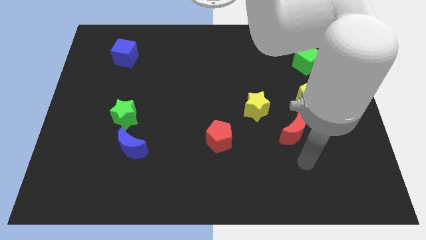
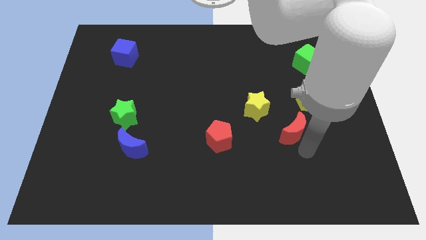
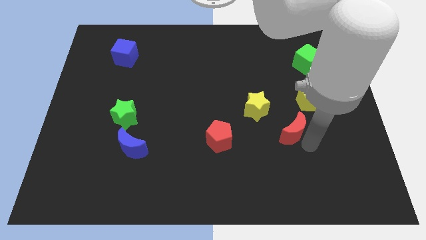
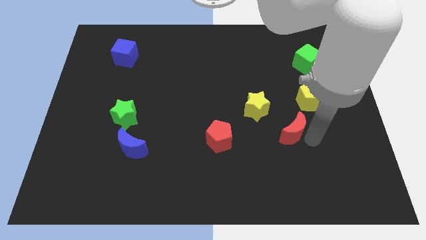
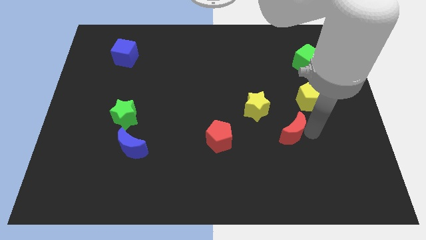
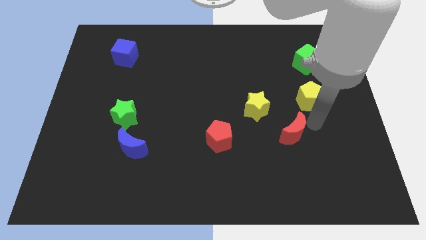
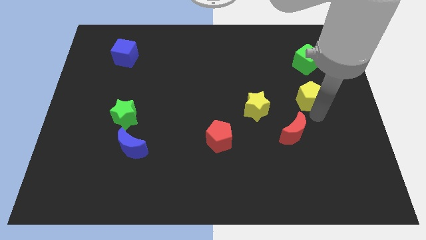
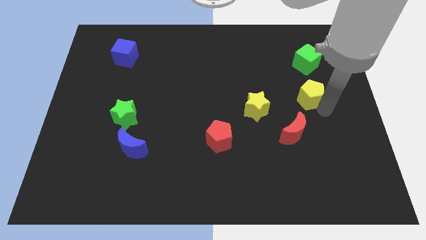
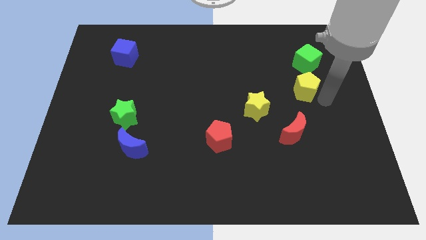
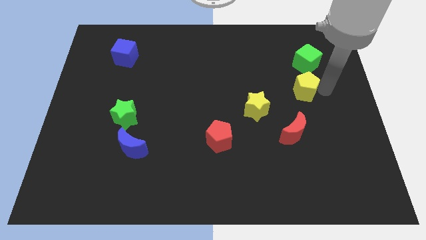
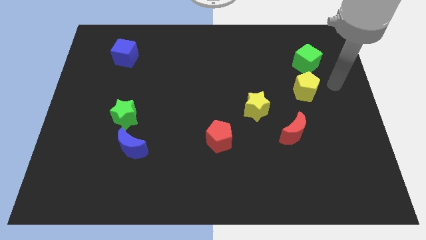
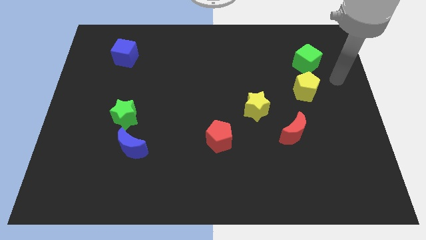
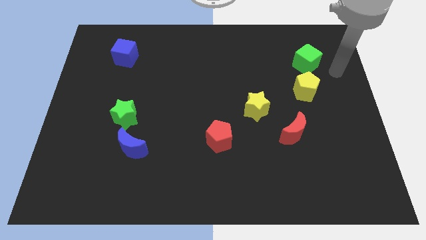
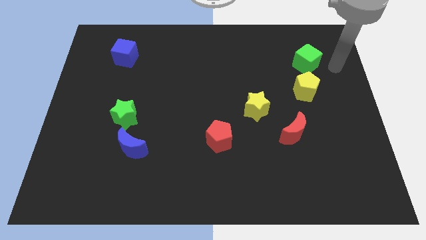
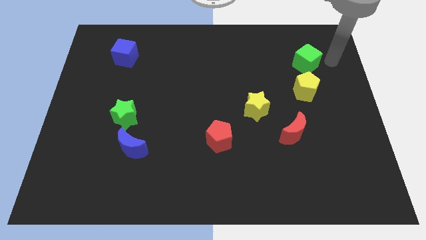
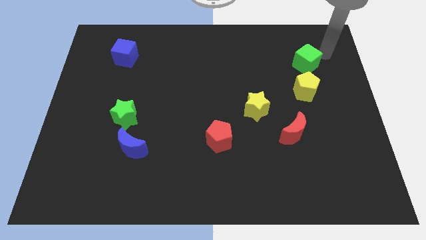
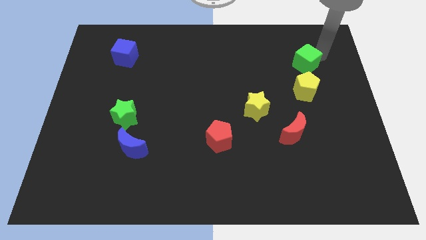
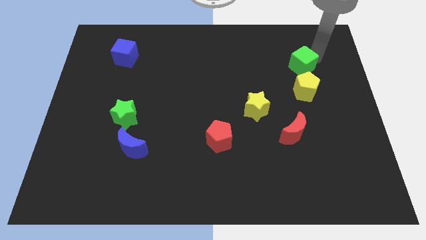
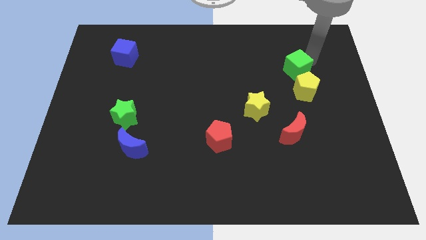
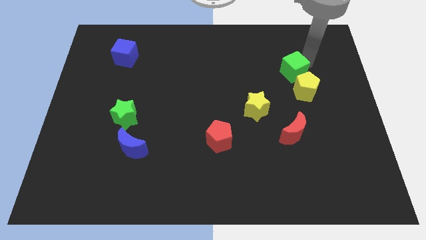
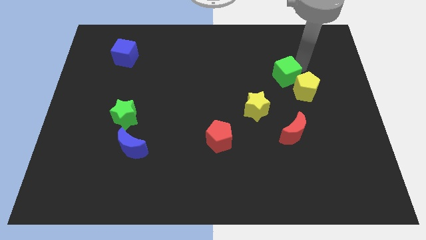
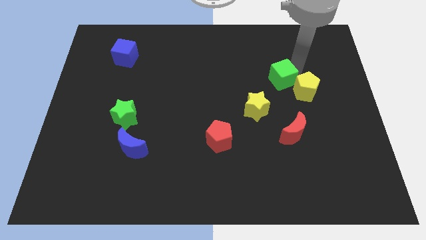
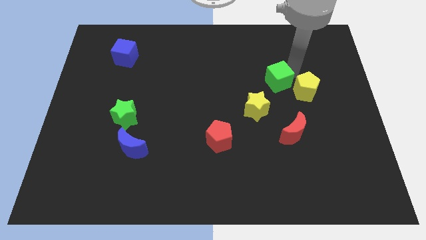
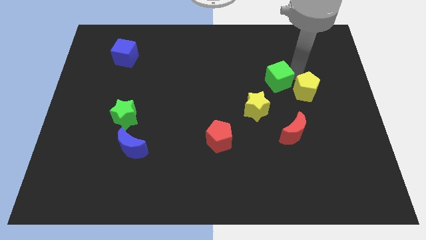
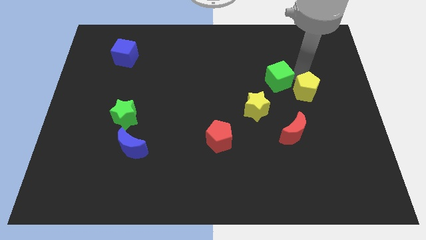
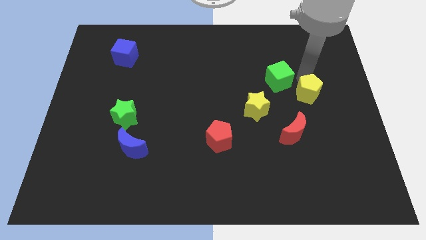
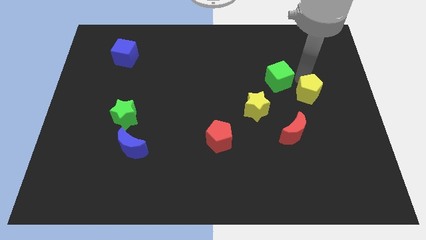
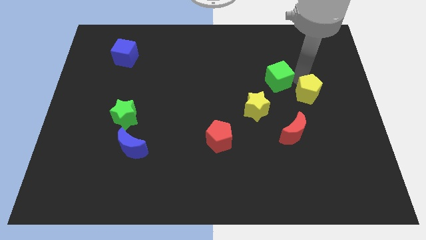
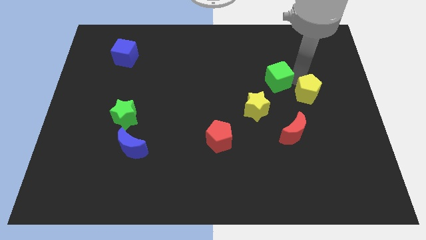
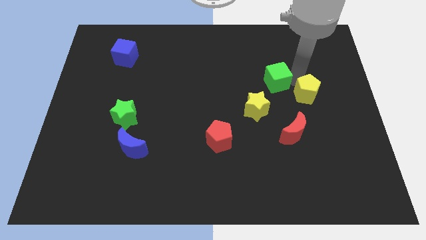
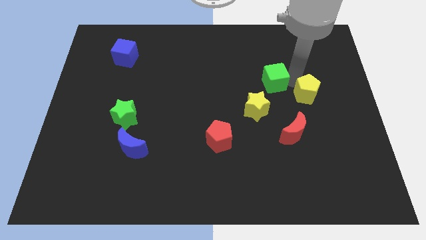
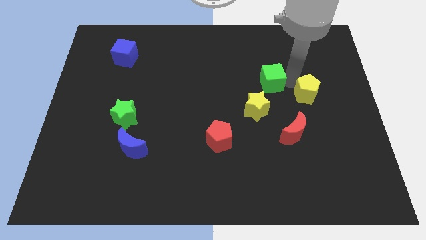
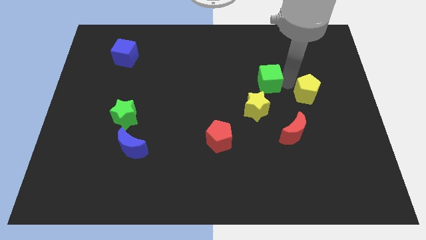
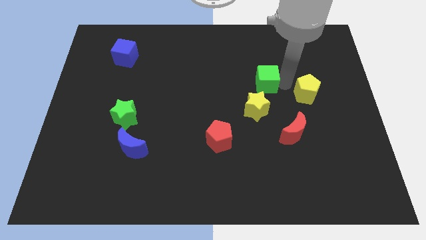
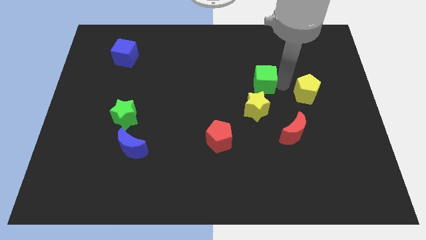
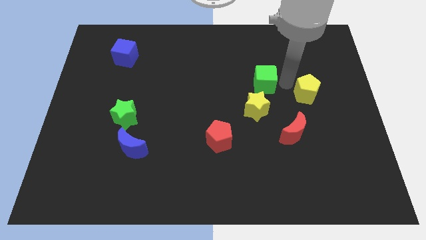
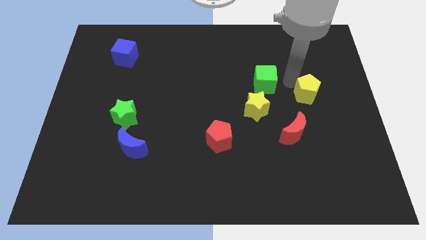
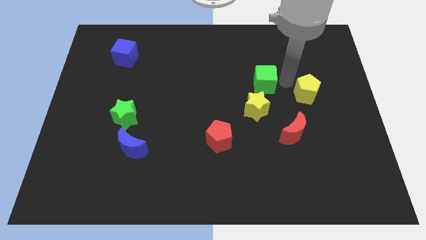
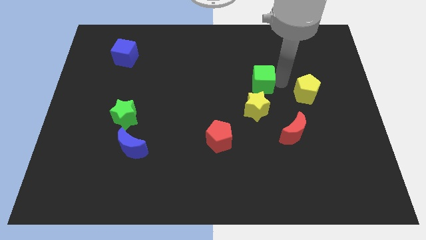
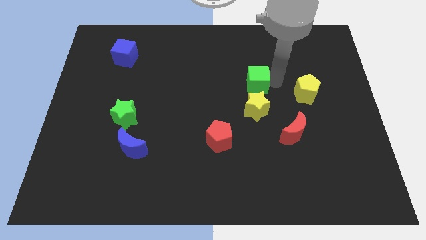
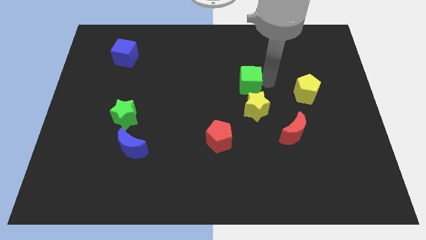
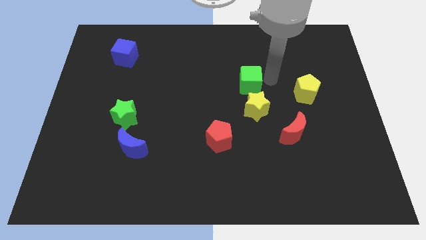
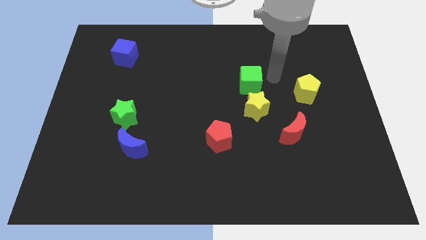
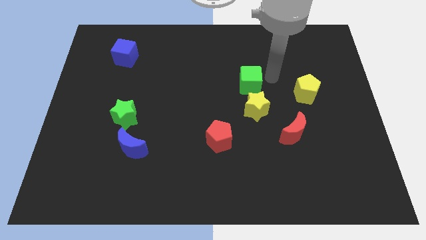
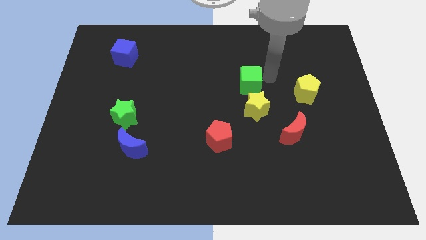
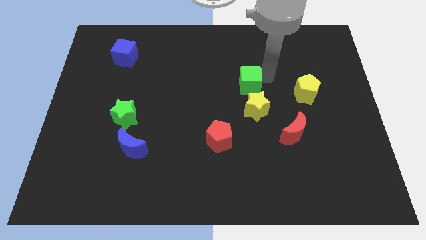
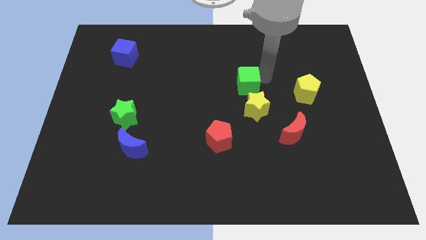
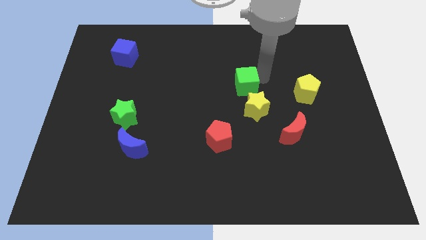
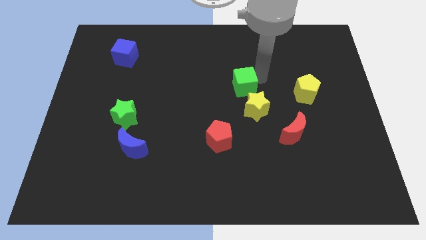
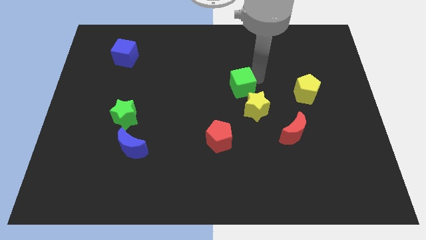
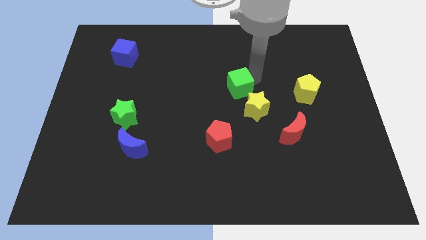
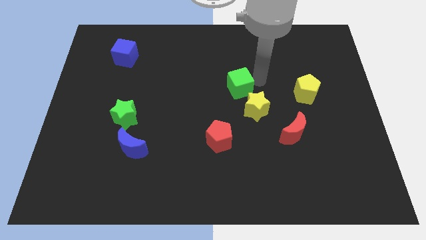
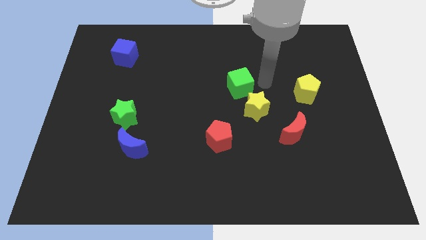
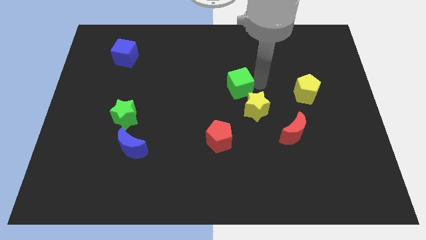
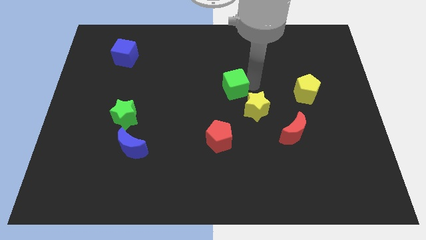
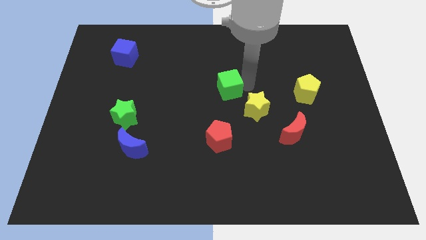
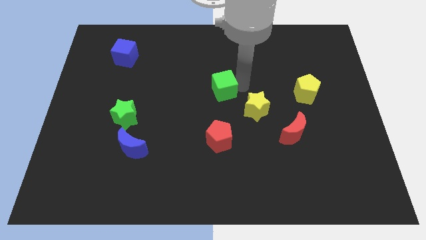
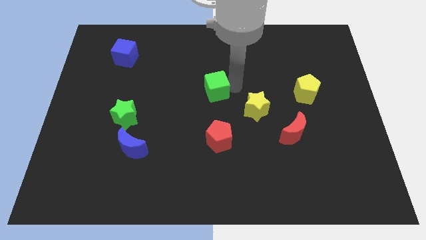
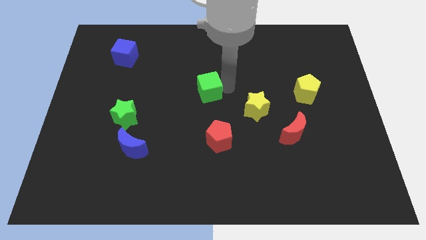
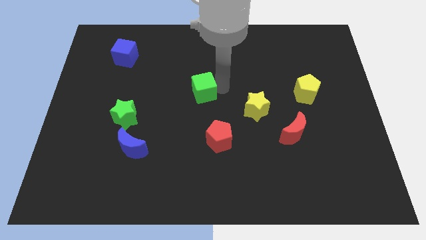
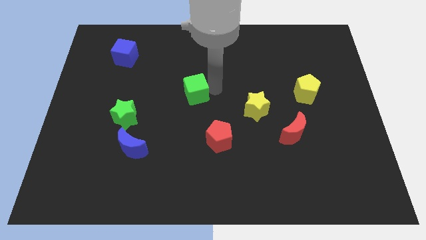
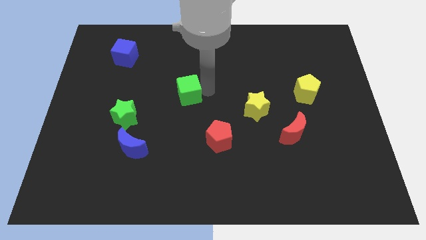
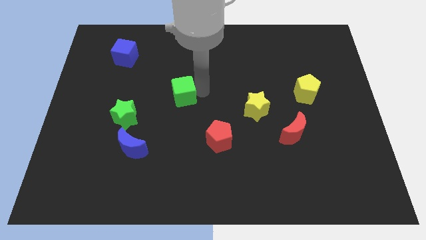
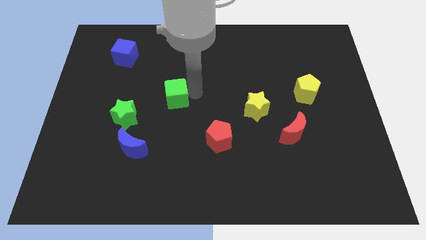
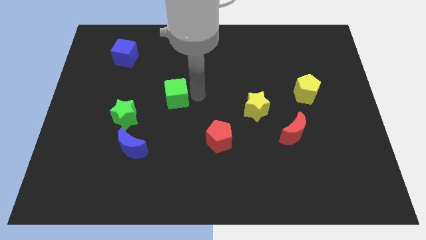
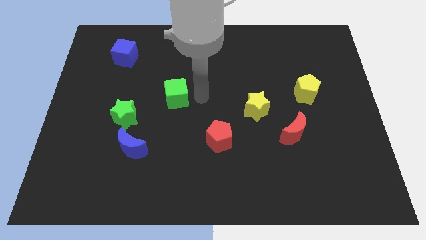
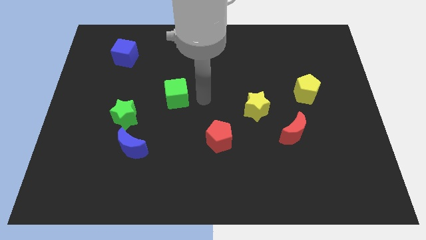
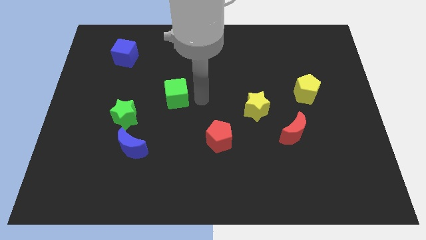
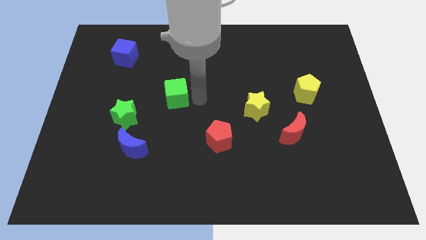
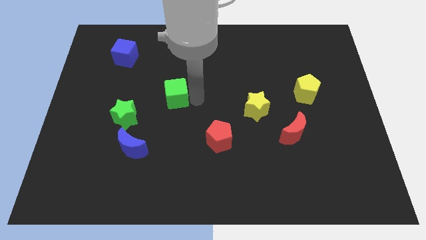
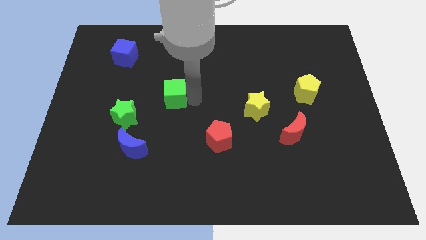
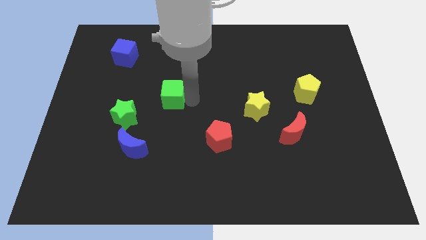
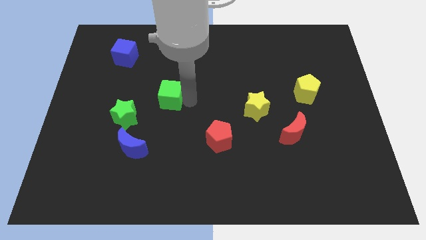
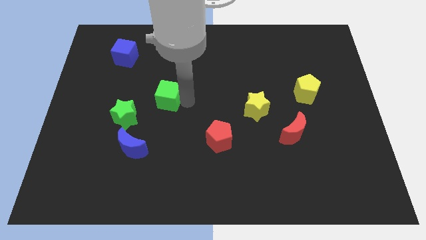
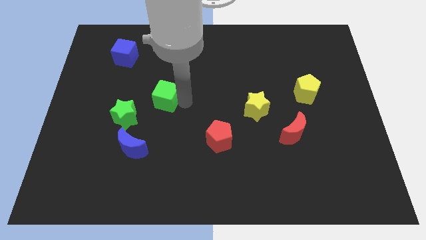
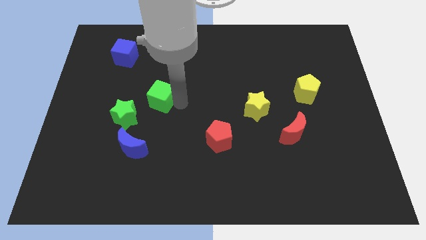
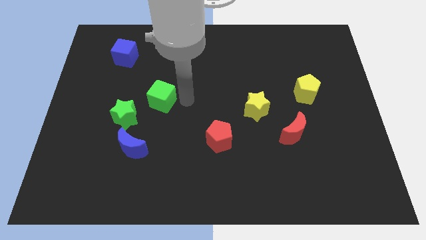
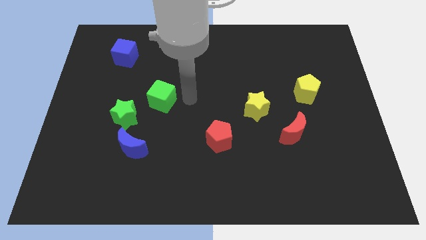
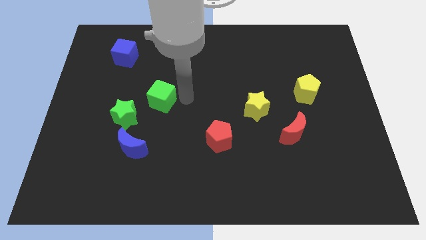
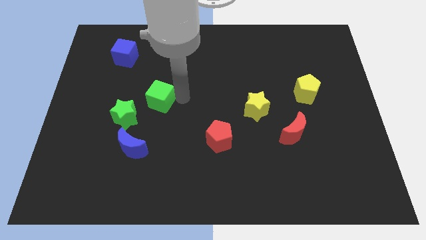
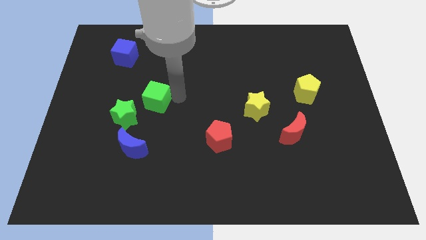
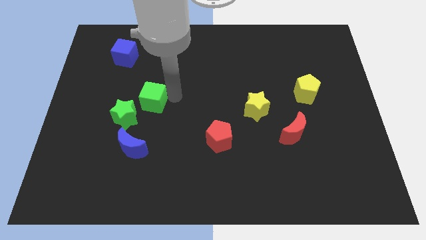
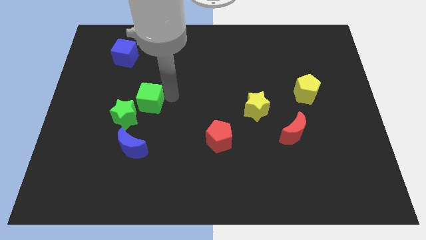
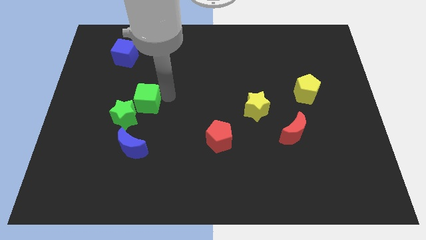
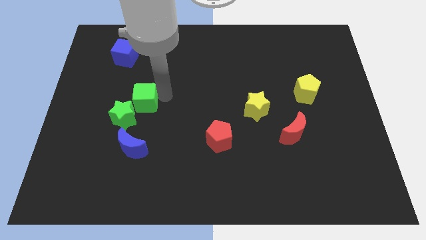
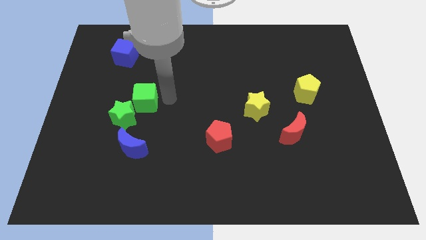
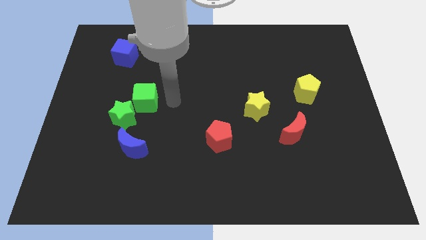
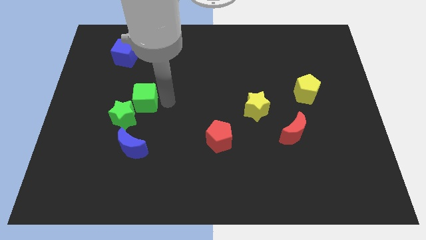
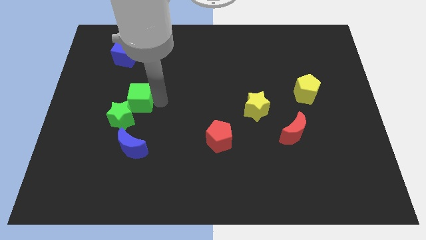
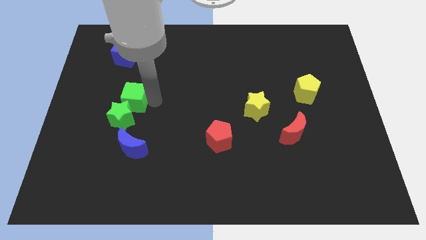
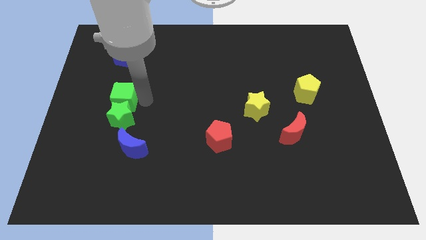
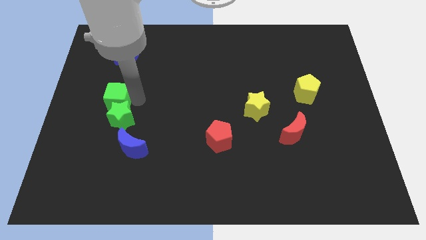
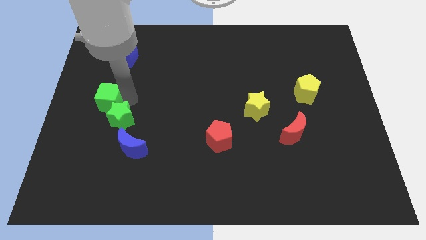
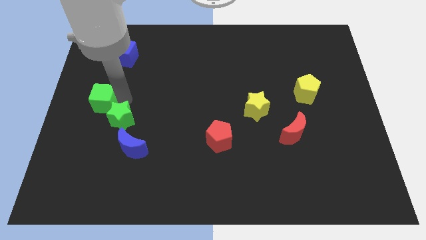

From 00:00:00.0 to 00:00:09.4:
move the green cube to the left side
